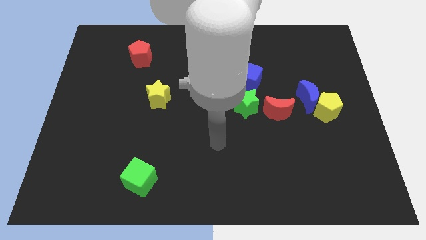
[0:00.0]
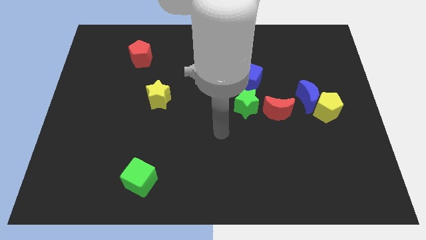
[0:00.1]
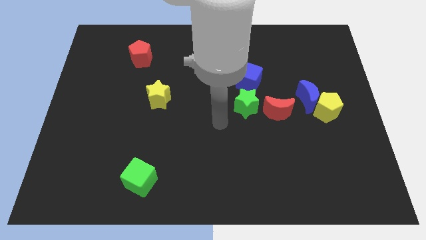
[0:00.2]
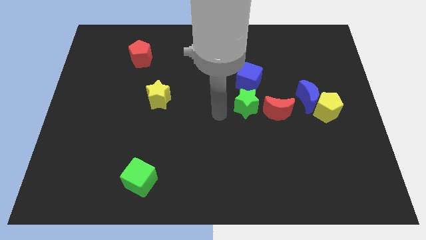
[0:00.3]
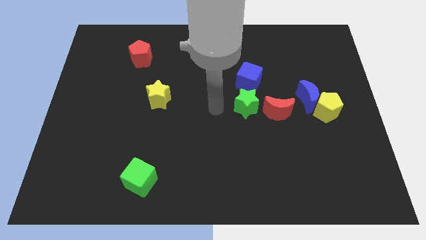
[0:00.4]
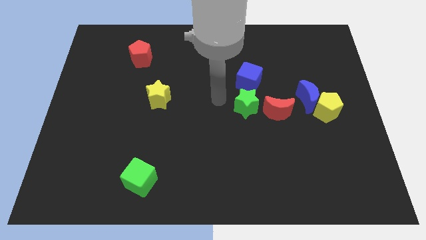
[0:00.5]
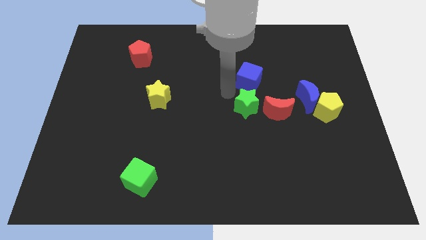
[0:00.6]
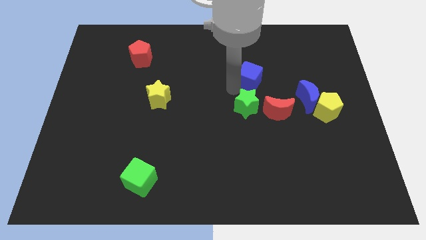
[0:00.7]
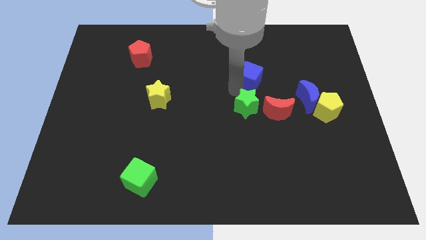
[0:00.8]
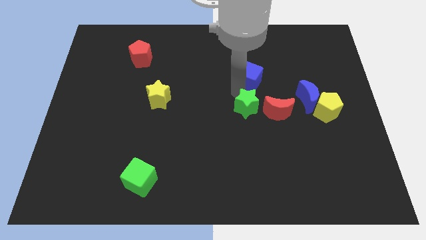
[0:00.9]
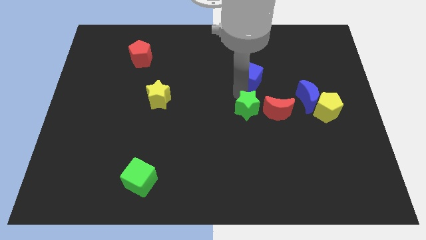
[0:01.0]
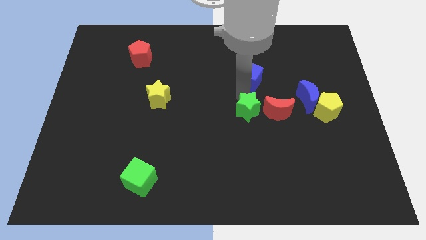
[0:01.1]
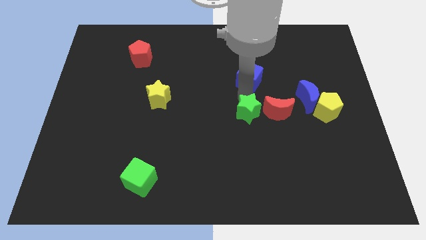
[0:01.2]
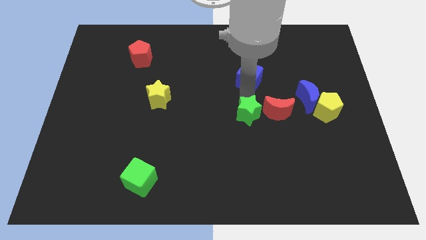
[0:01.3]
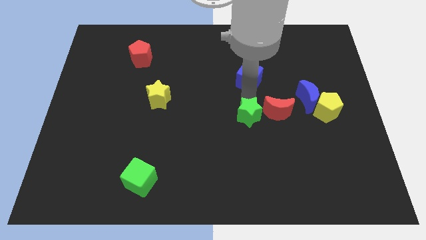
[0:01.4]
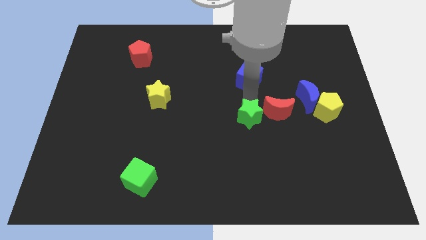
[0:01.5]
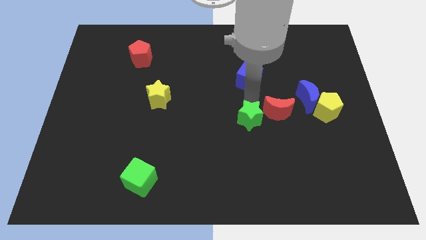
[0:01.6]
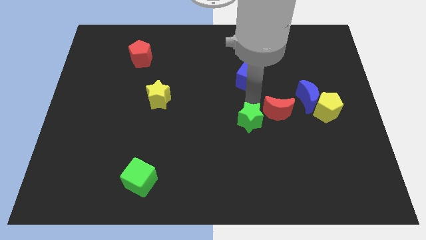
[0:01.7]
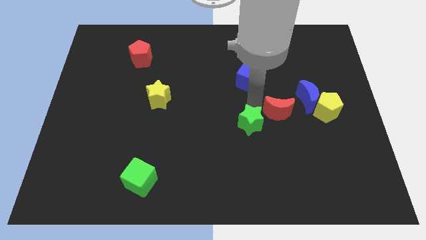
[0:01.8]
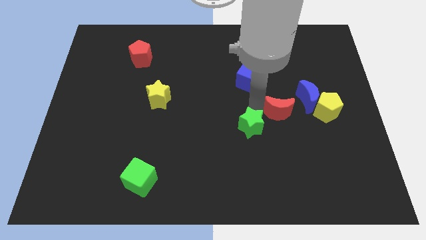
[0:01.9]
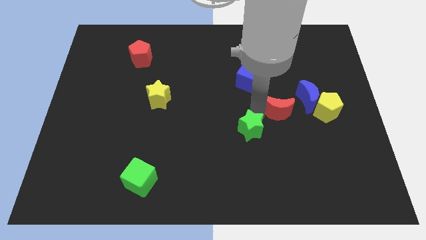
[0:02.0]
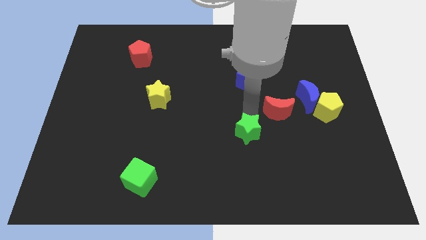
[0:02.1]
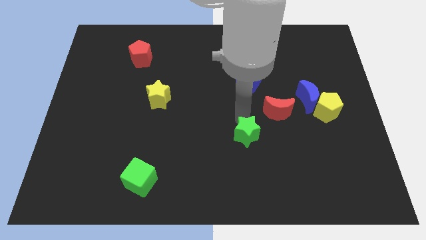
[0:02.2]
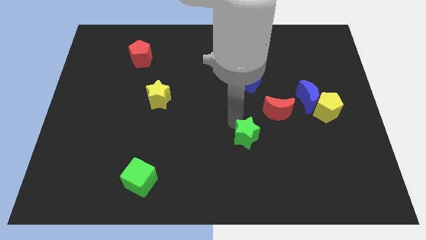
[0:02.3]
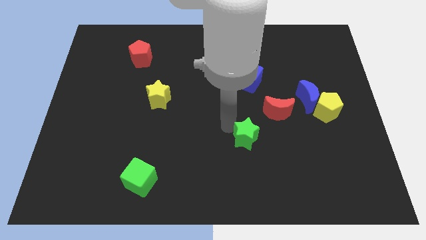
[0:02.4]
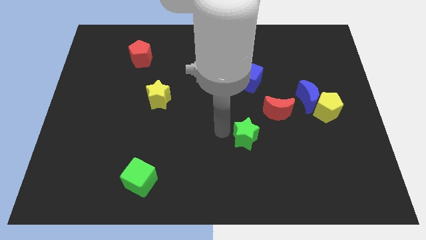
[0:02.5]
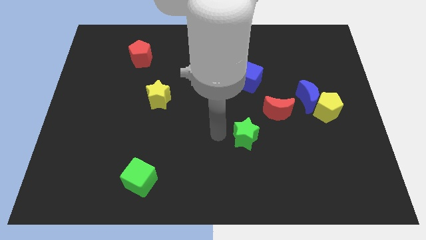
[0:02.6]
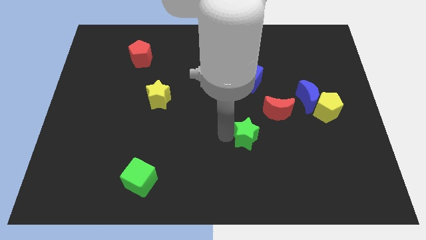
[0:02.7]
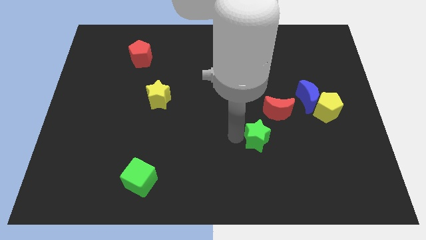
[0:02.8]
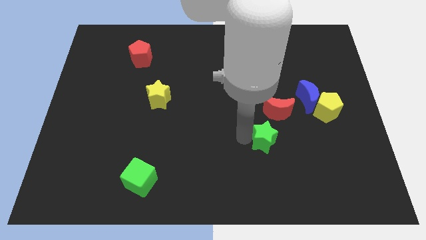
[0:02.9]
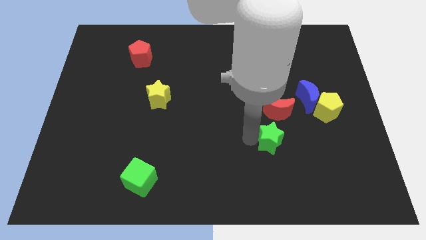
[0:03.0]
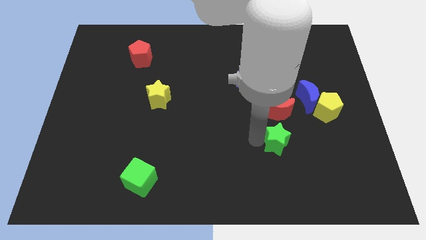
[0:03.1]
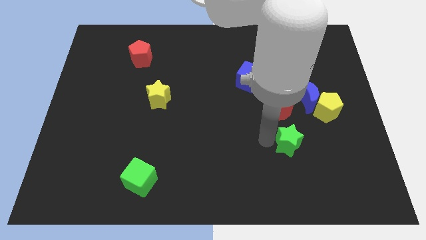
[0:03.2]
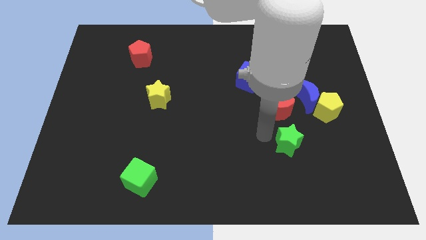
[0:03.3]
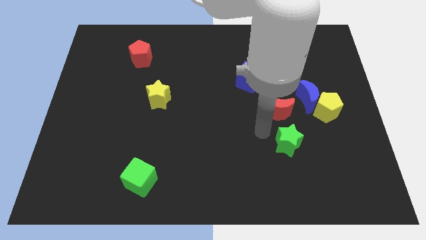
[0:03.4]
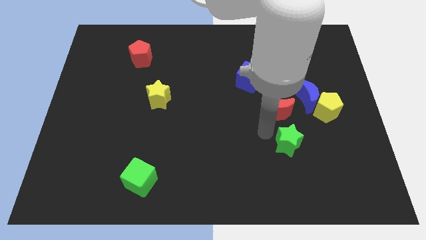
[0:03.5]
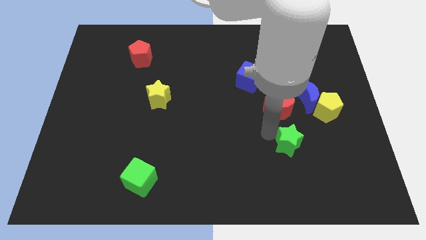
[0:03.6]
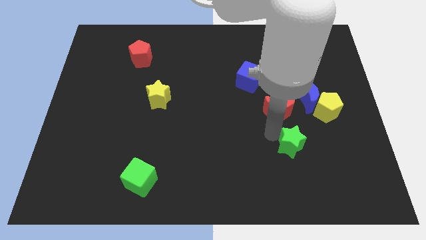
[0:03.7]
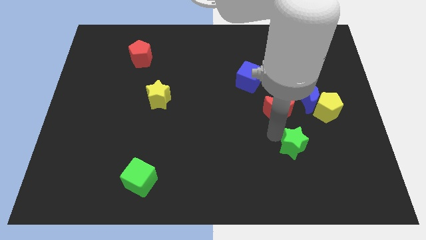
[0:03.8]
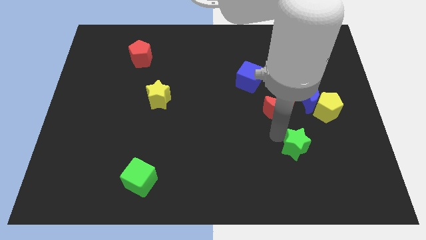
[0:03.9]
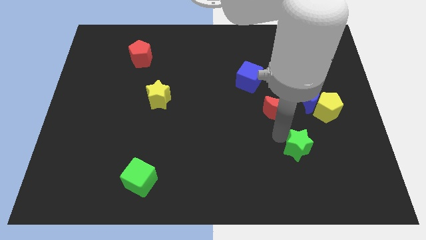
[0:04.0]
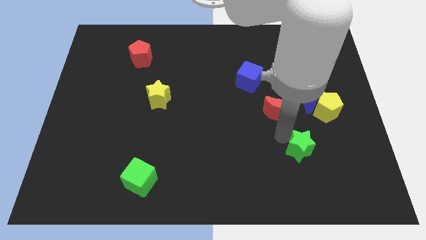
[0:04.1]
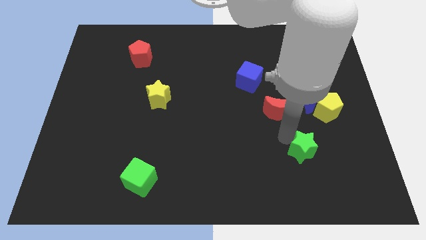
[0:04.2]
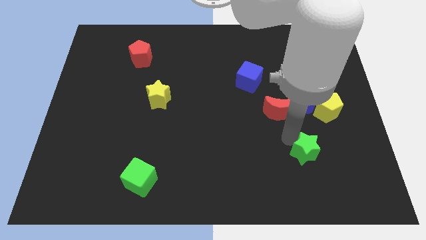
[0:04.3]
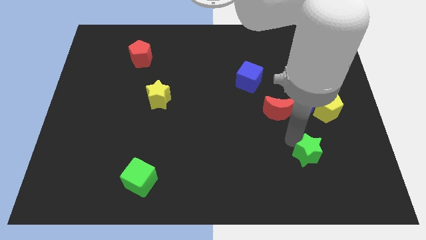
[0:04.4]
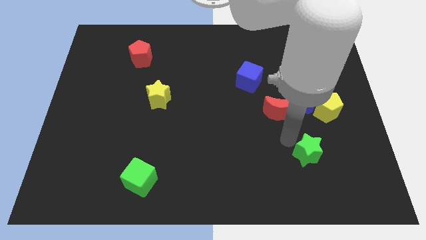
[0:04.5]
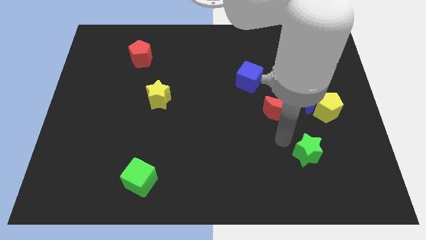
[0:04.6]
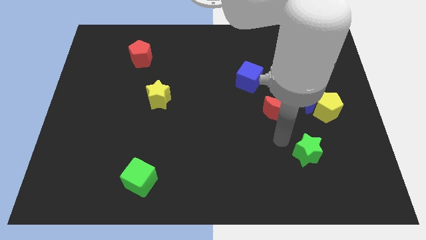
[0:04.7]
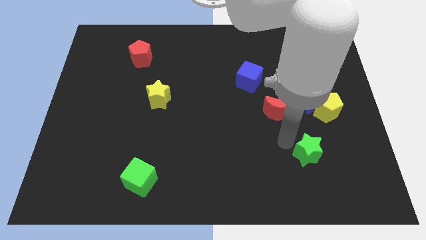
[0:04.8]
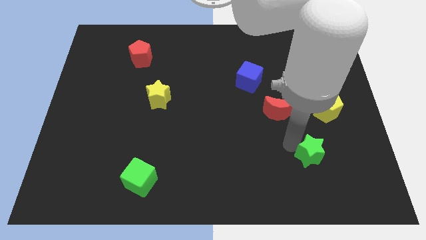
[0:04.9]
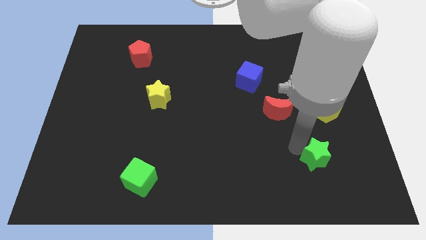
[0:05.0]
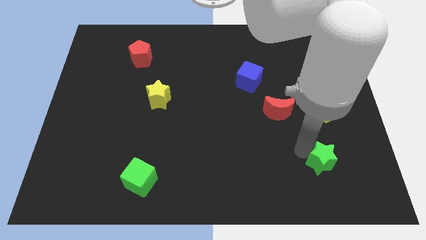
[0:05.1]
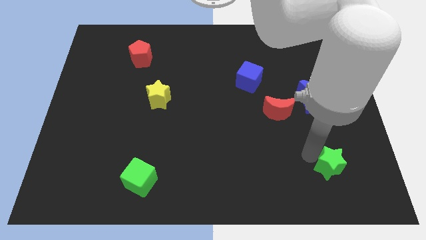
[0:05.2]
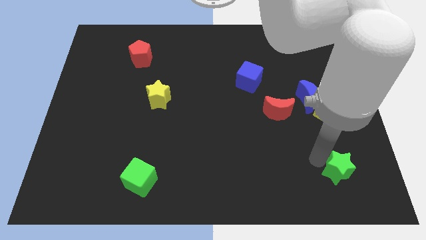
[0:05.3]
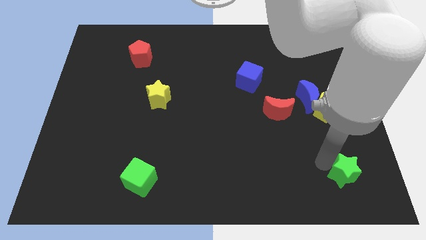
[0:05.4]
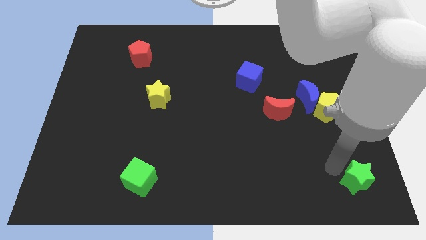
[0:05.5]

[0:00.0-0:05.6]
put the green star to the bottom right corner
